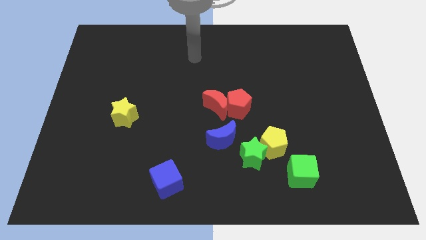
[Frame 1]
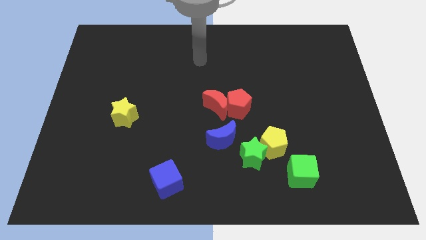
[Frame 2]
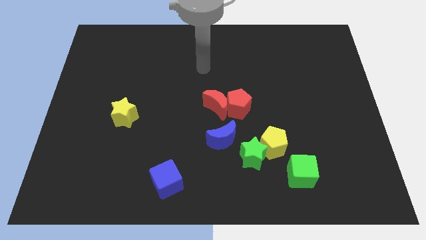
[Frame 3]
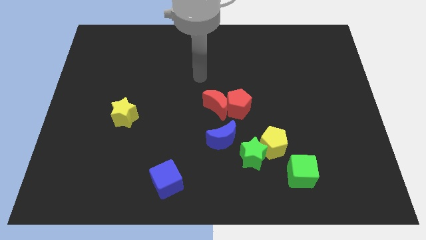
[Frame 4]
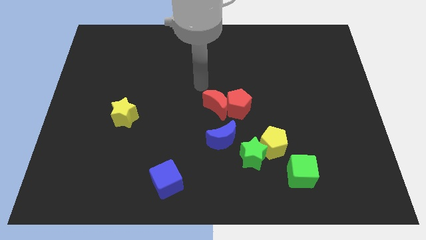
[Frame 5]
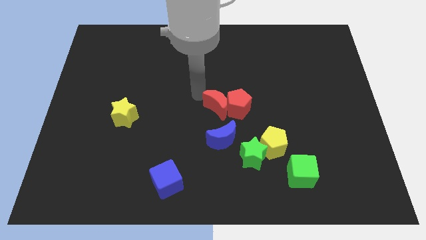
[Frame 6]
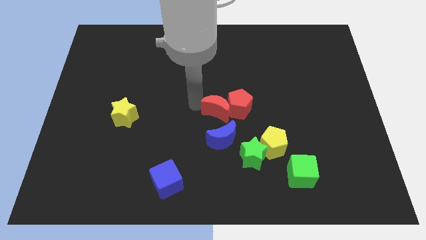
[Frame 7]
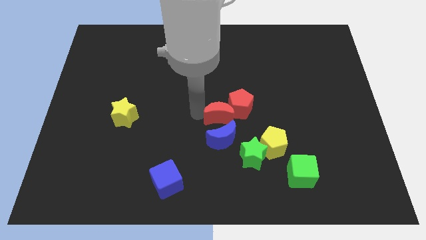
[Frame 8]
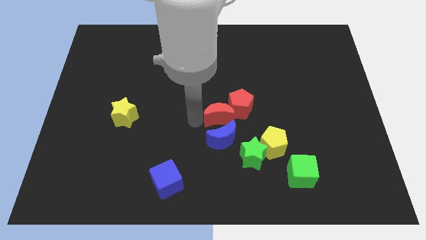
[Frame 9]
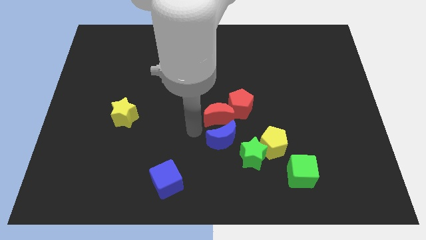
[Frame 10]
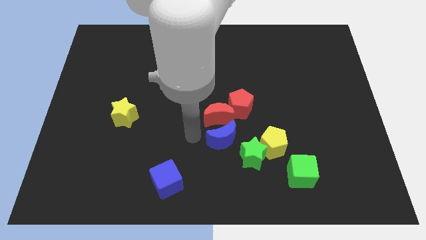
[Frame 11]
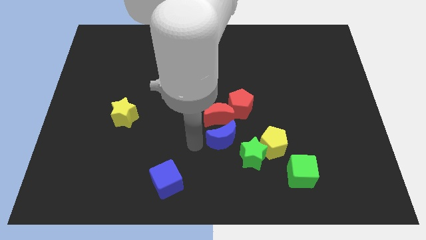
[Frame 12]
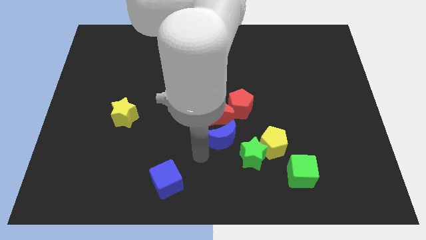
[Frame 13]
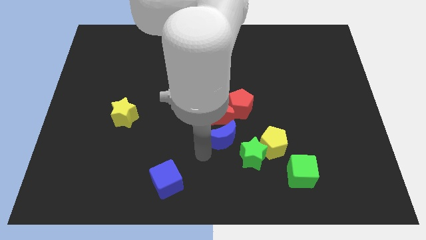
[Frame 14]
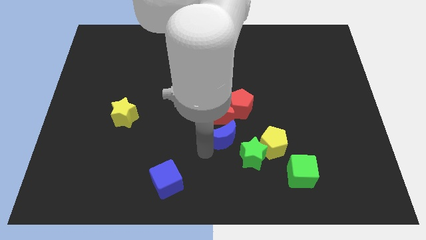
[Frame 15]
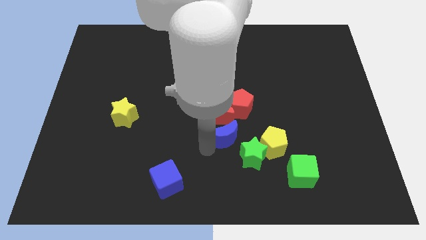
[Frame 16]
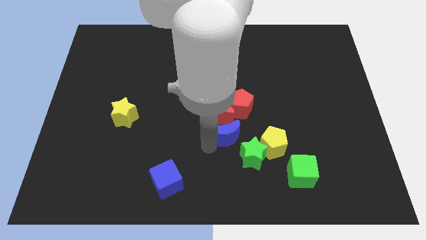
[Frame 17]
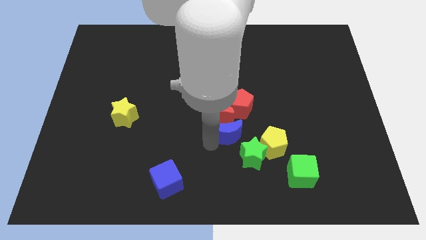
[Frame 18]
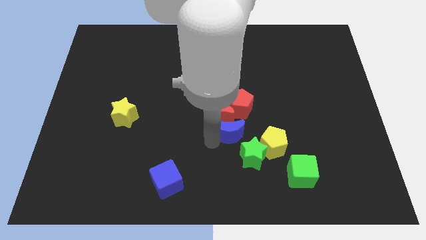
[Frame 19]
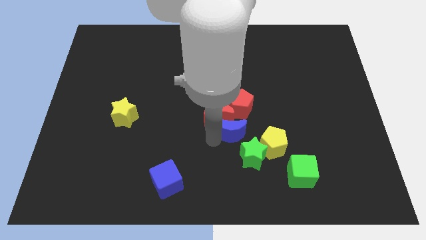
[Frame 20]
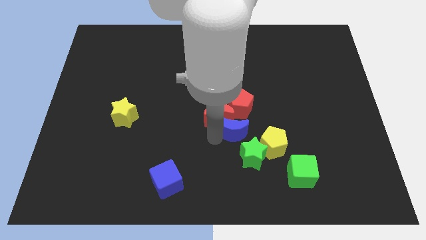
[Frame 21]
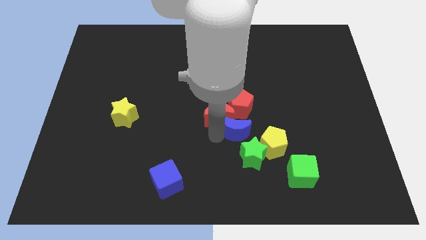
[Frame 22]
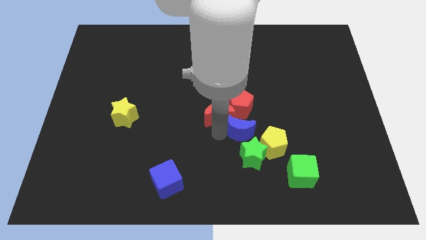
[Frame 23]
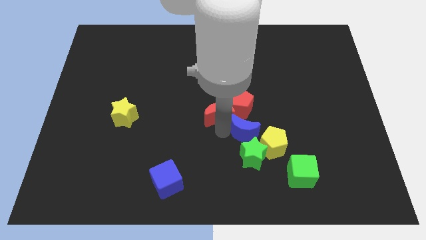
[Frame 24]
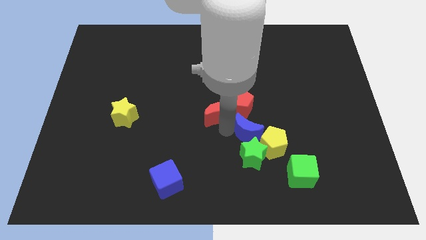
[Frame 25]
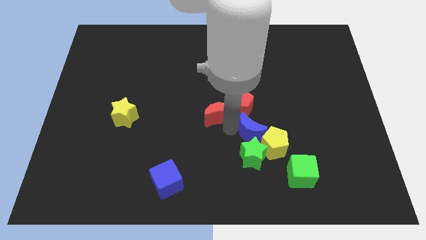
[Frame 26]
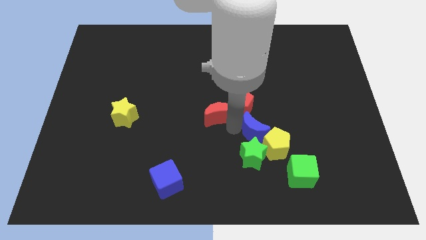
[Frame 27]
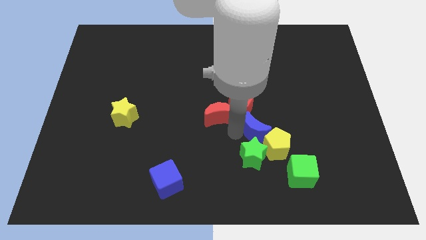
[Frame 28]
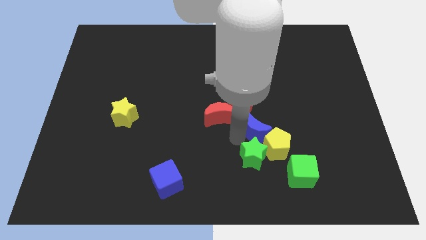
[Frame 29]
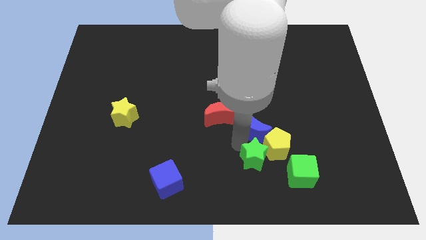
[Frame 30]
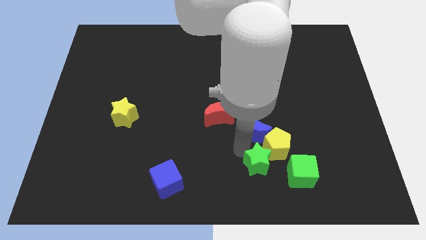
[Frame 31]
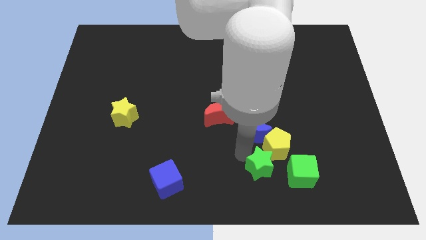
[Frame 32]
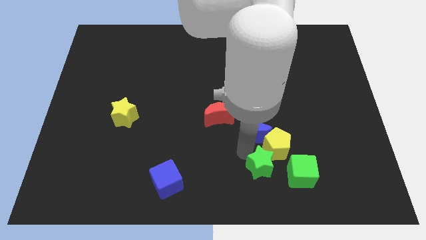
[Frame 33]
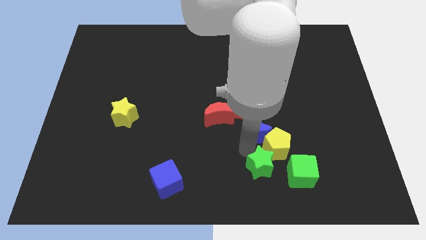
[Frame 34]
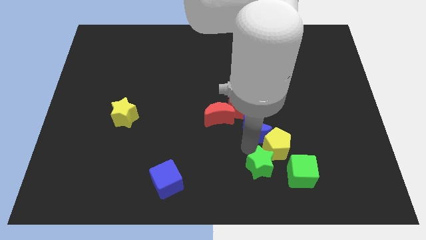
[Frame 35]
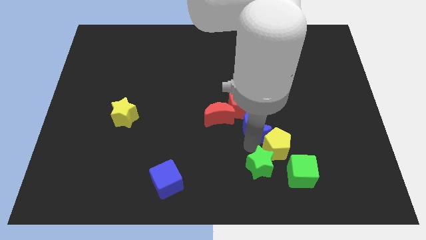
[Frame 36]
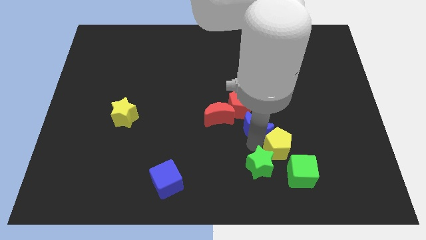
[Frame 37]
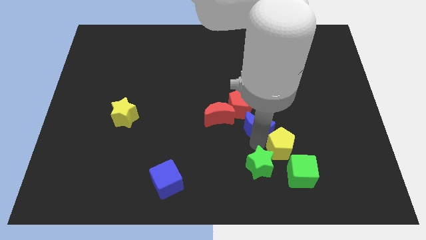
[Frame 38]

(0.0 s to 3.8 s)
slightly move the blue moon up and right

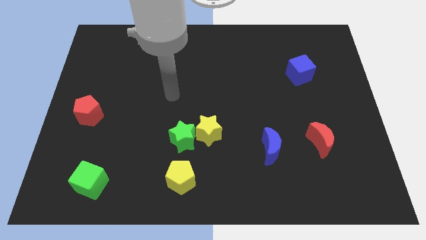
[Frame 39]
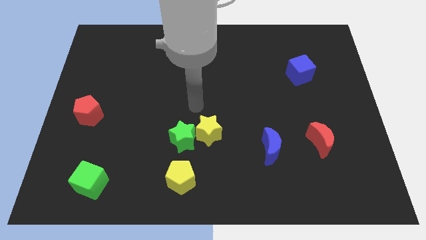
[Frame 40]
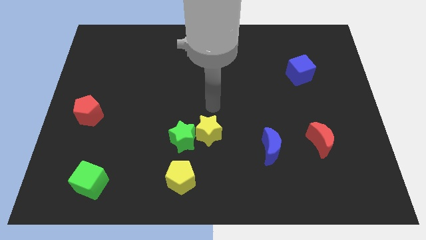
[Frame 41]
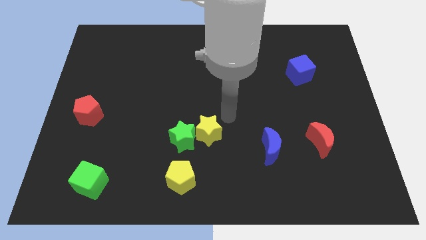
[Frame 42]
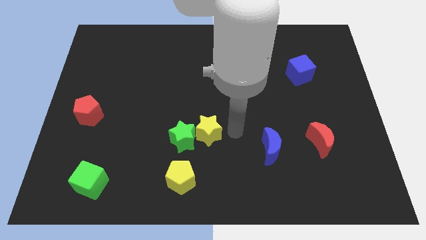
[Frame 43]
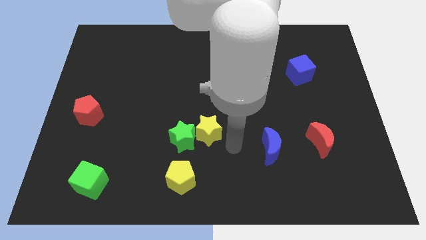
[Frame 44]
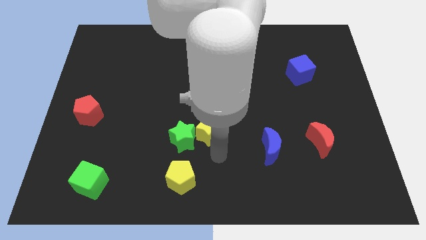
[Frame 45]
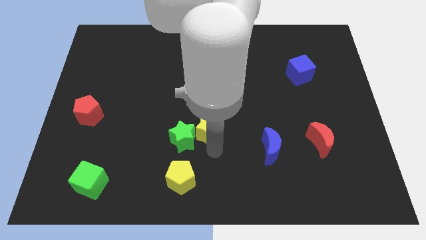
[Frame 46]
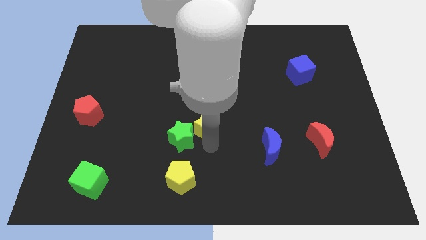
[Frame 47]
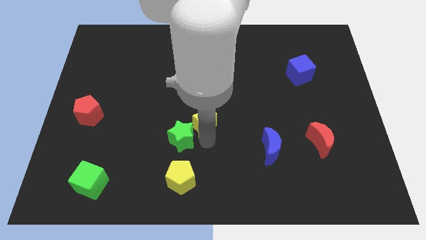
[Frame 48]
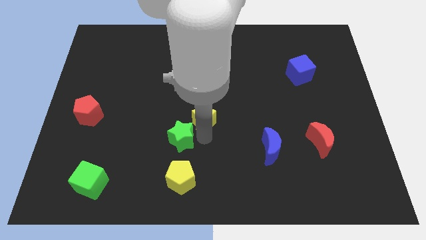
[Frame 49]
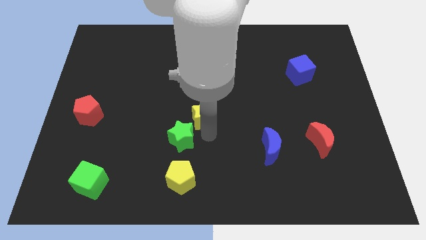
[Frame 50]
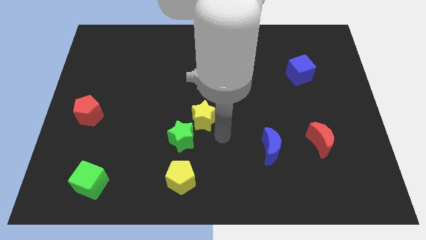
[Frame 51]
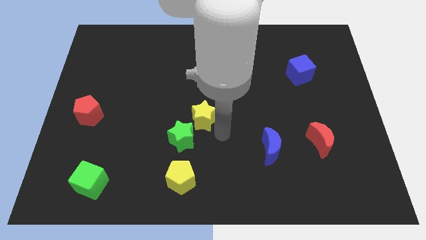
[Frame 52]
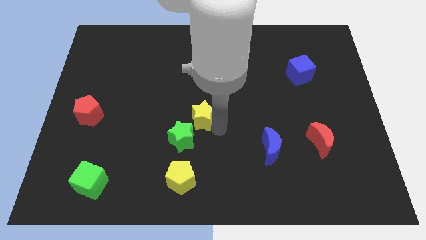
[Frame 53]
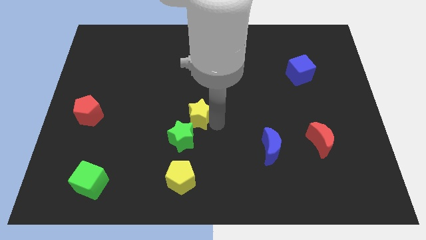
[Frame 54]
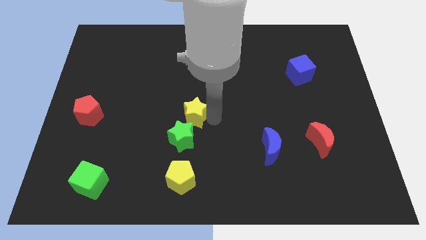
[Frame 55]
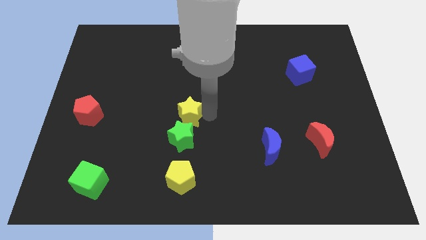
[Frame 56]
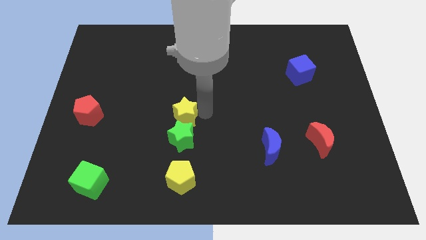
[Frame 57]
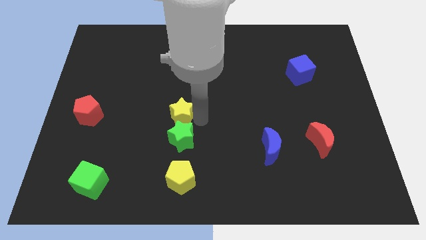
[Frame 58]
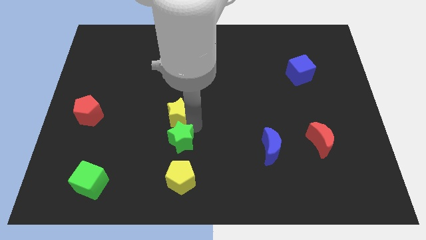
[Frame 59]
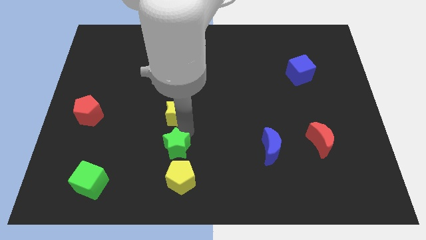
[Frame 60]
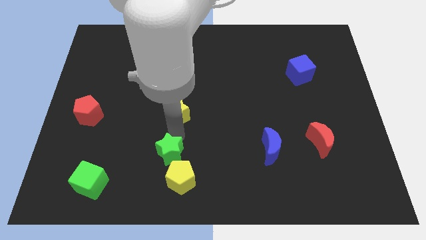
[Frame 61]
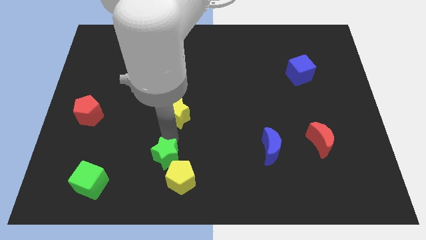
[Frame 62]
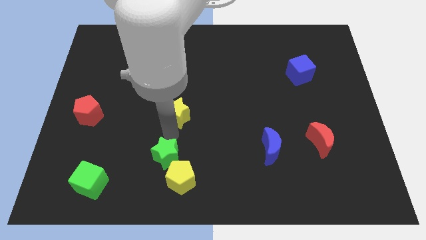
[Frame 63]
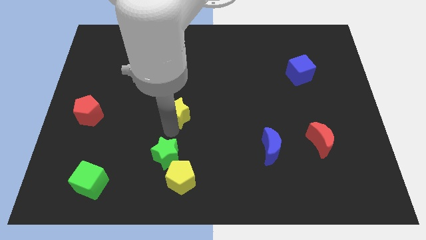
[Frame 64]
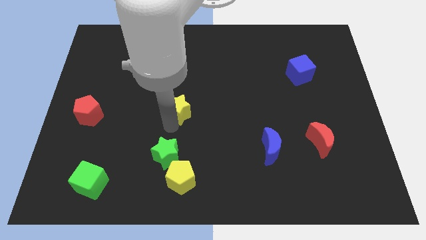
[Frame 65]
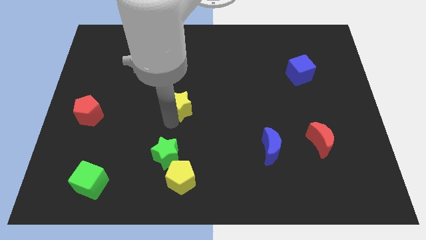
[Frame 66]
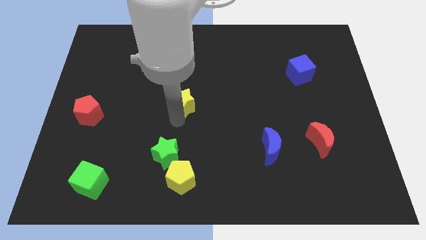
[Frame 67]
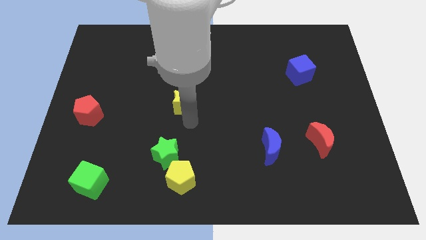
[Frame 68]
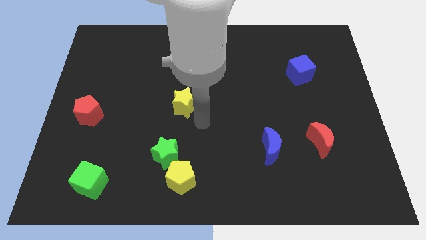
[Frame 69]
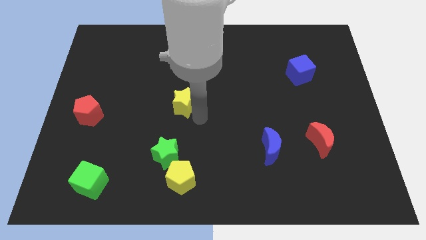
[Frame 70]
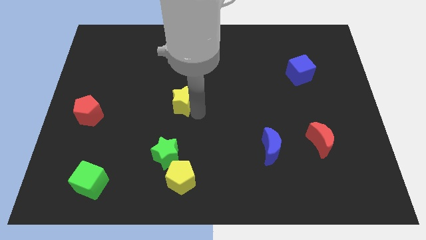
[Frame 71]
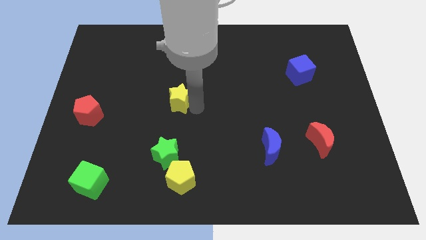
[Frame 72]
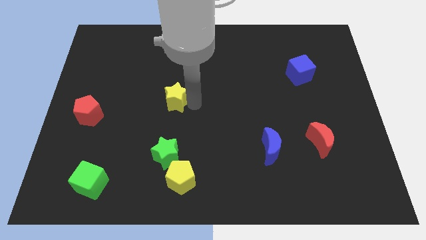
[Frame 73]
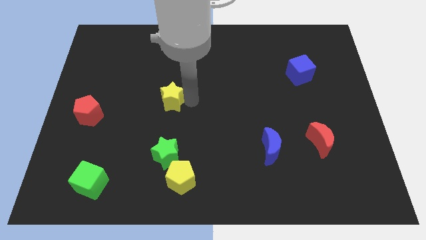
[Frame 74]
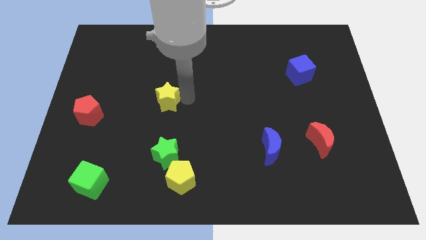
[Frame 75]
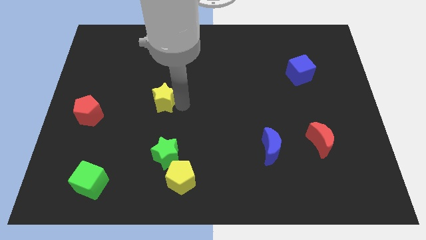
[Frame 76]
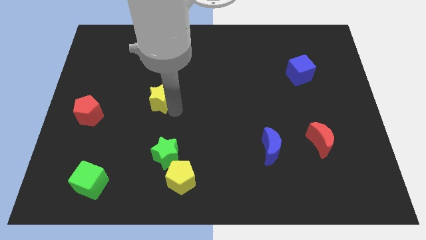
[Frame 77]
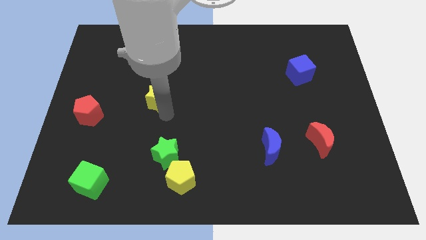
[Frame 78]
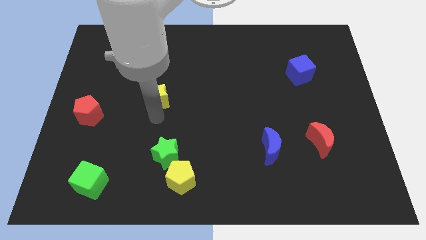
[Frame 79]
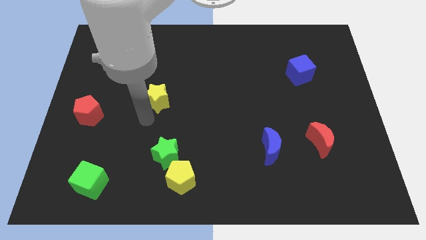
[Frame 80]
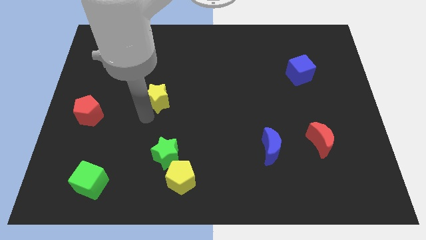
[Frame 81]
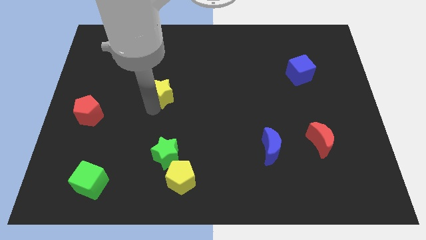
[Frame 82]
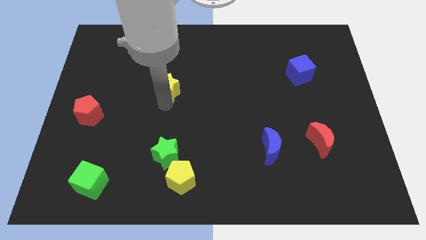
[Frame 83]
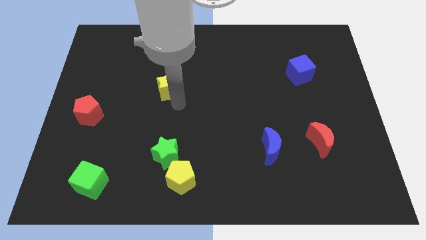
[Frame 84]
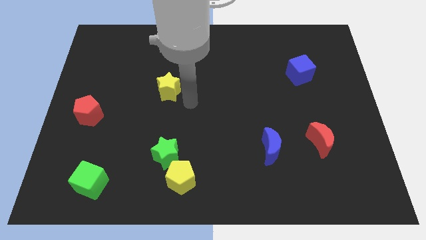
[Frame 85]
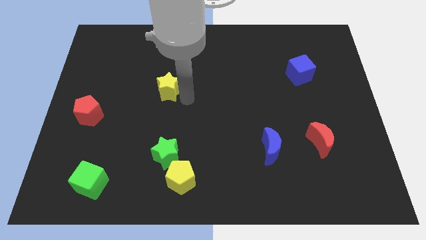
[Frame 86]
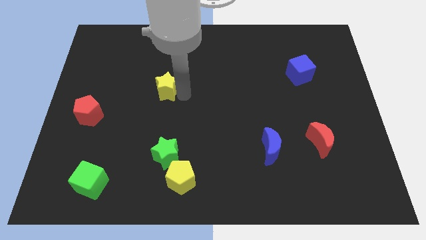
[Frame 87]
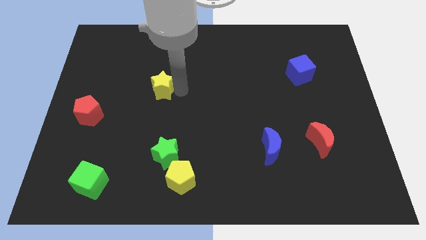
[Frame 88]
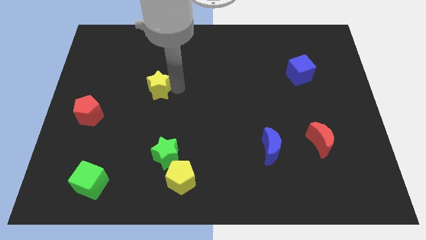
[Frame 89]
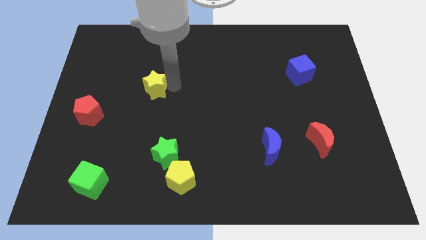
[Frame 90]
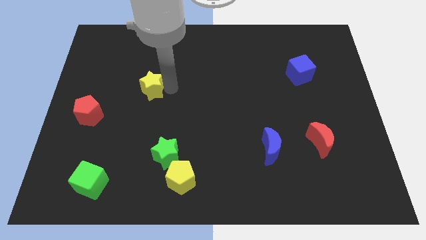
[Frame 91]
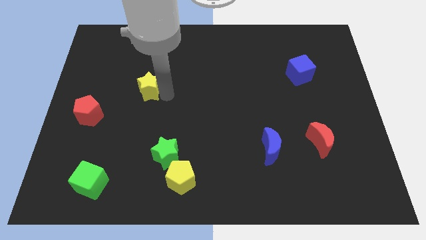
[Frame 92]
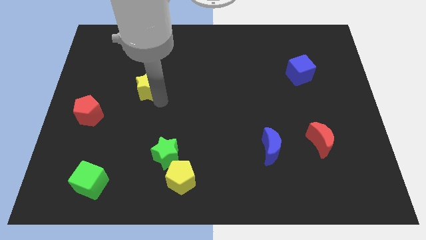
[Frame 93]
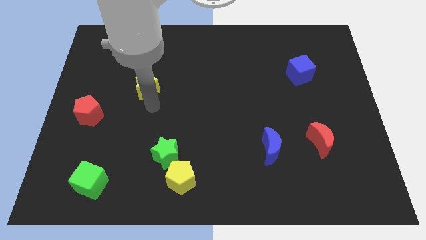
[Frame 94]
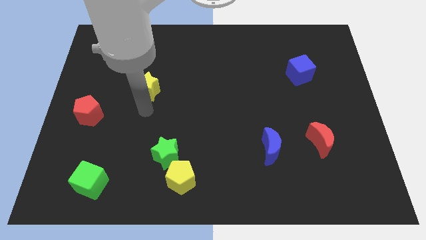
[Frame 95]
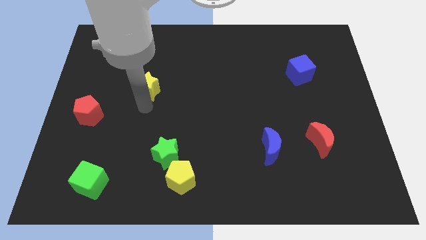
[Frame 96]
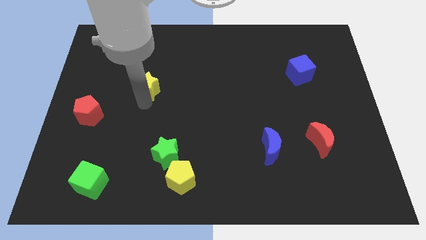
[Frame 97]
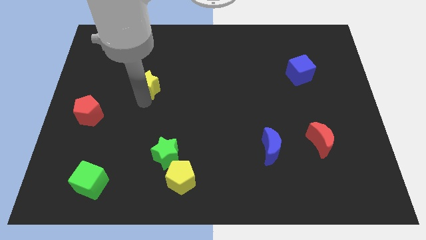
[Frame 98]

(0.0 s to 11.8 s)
move the yellow star upwards and to the left diagonally
